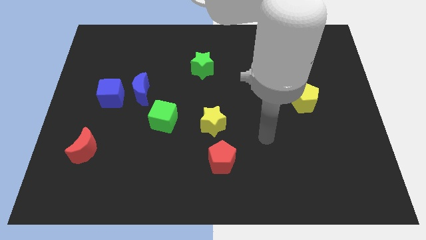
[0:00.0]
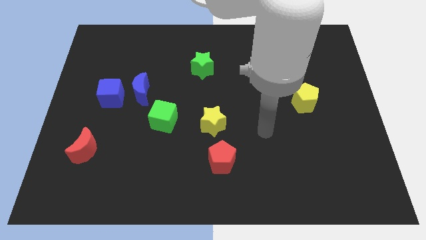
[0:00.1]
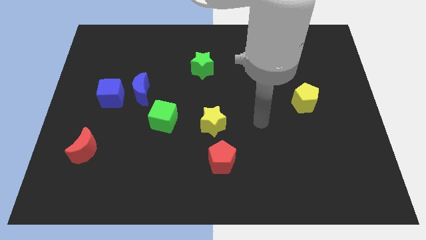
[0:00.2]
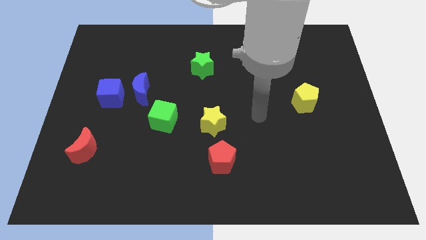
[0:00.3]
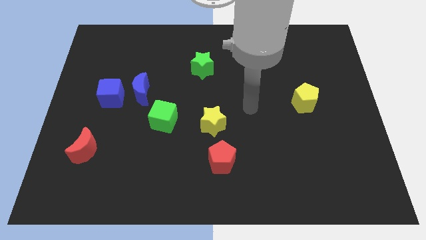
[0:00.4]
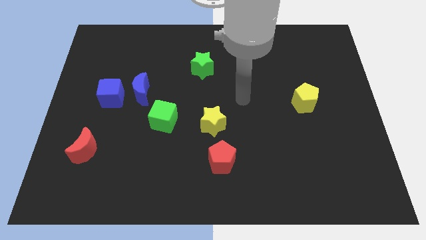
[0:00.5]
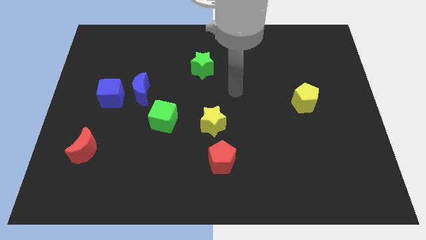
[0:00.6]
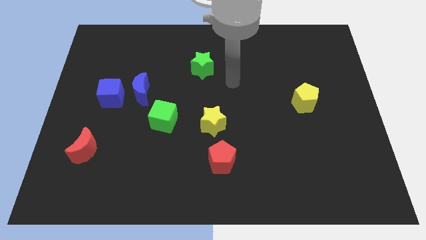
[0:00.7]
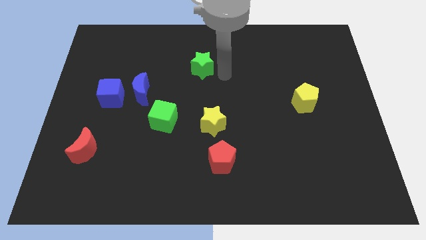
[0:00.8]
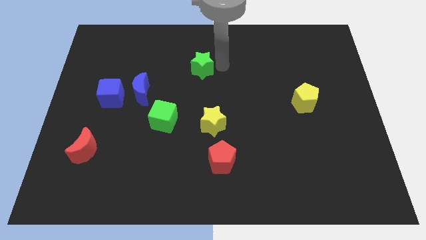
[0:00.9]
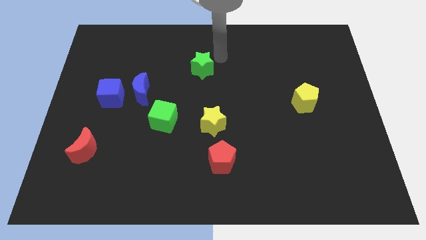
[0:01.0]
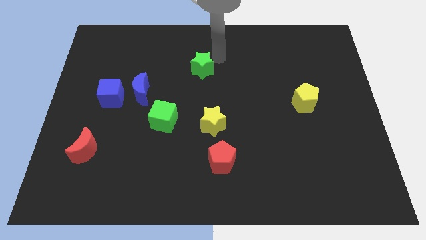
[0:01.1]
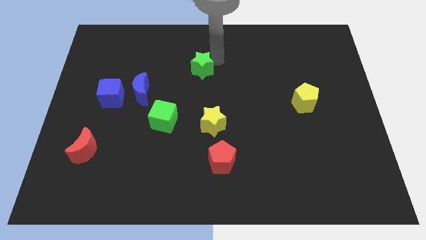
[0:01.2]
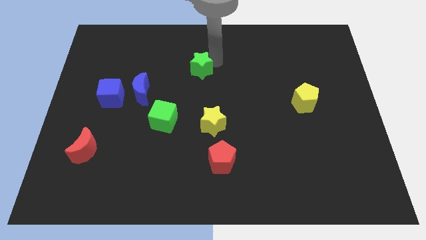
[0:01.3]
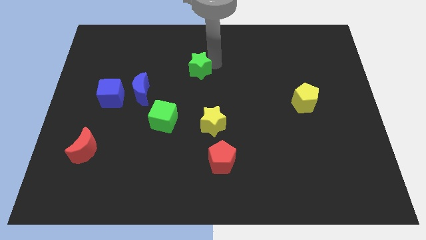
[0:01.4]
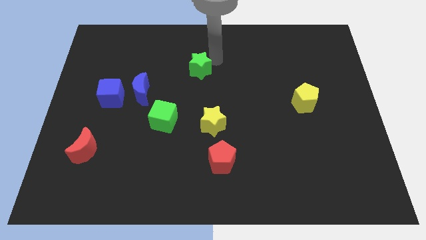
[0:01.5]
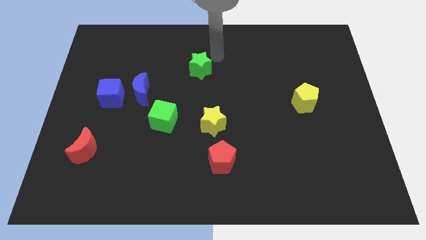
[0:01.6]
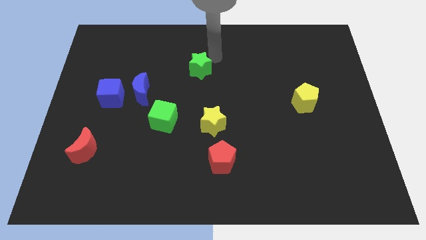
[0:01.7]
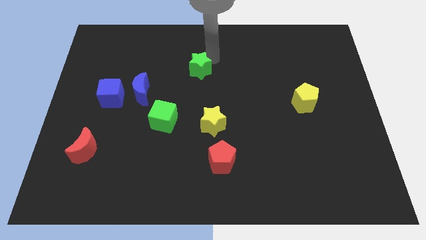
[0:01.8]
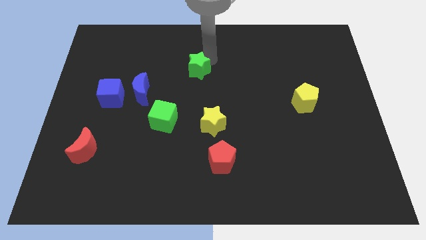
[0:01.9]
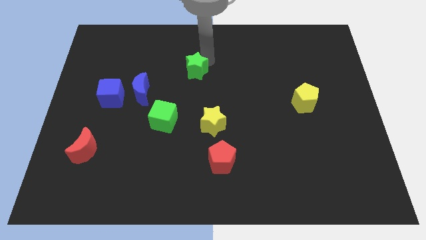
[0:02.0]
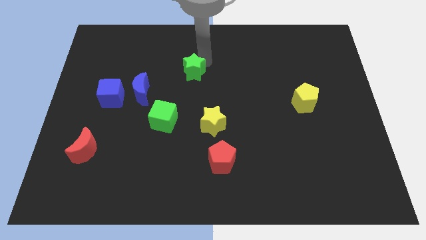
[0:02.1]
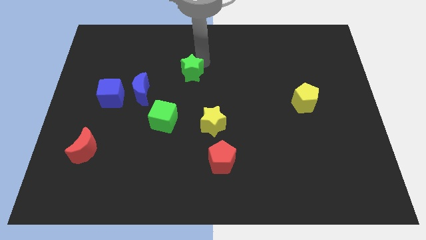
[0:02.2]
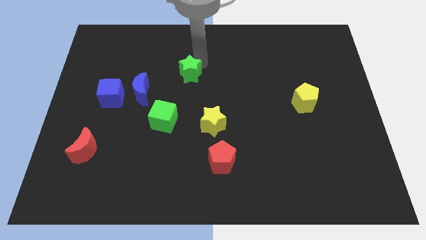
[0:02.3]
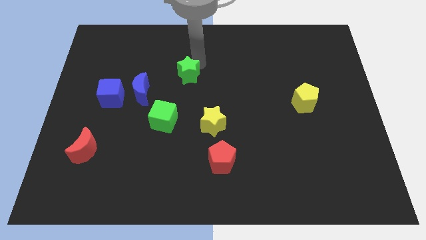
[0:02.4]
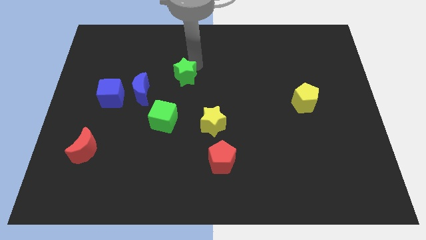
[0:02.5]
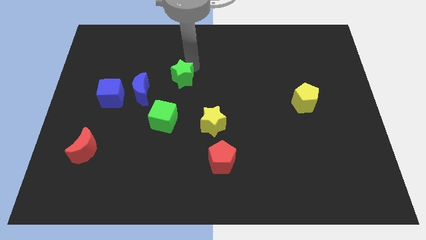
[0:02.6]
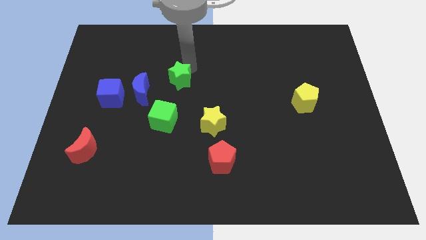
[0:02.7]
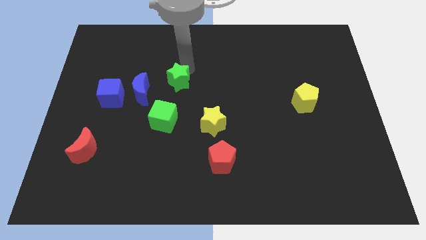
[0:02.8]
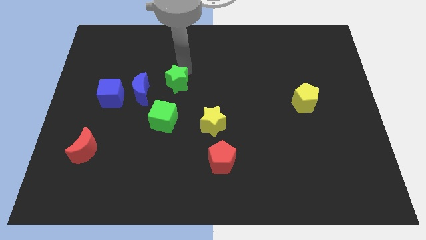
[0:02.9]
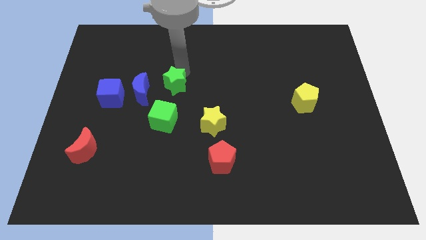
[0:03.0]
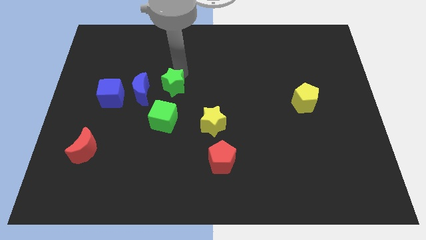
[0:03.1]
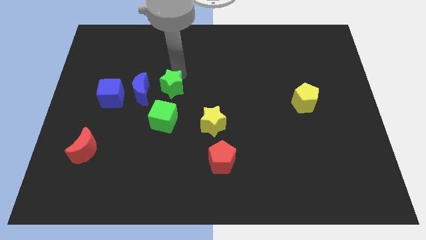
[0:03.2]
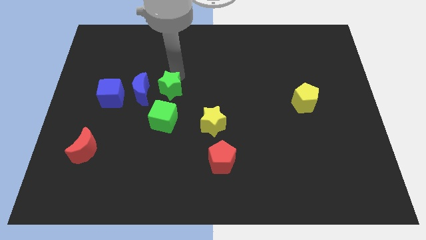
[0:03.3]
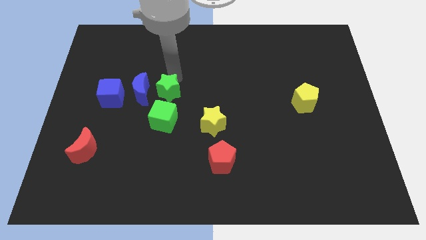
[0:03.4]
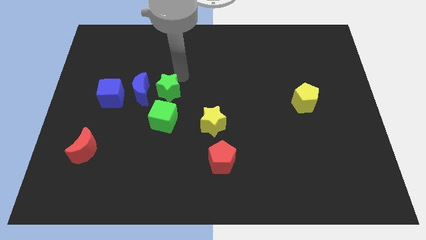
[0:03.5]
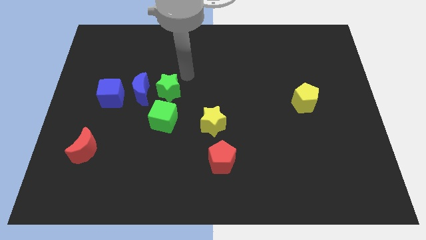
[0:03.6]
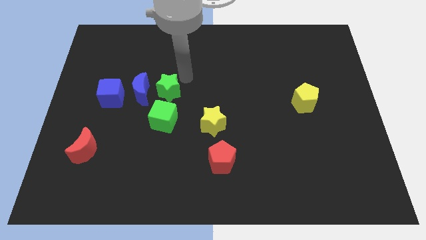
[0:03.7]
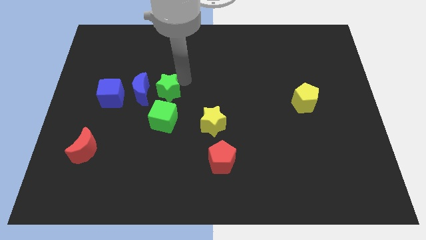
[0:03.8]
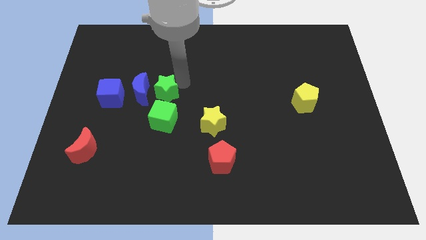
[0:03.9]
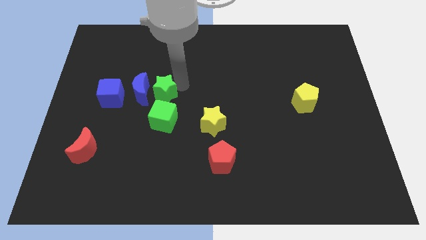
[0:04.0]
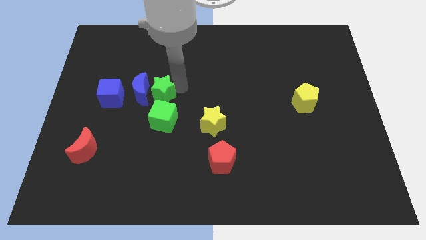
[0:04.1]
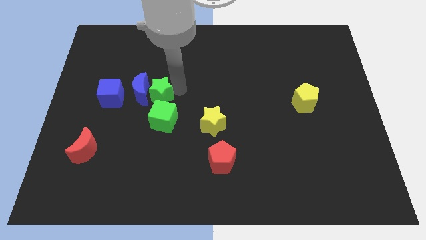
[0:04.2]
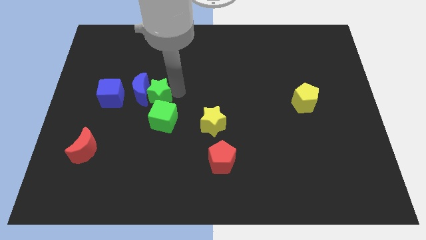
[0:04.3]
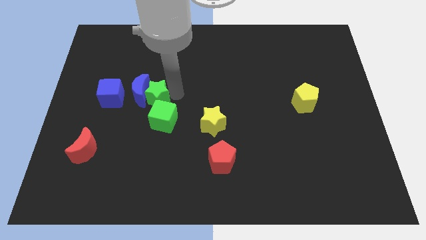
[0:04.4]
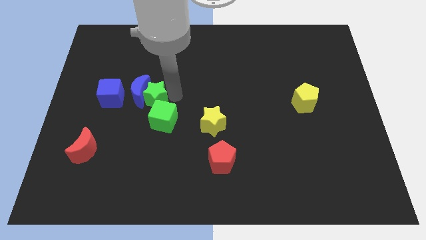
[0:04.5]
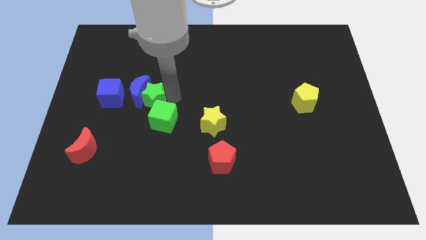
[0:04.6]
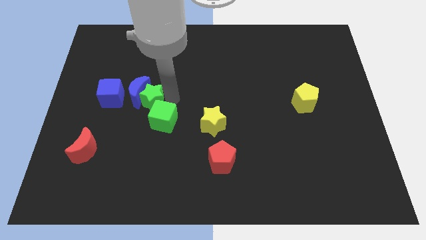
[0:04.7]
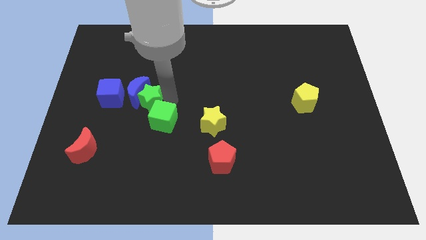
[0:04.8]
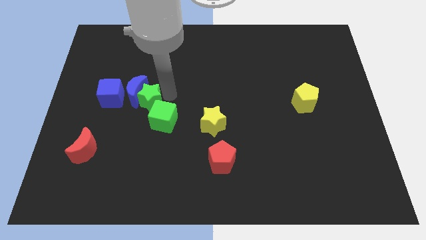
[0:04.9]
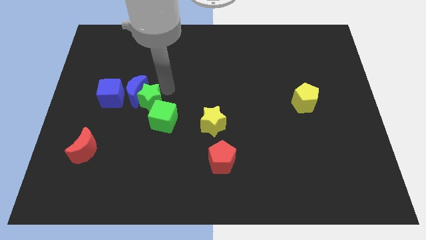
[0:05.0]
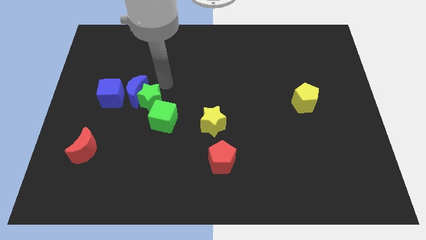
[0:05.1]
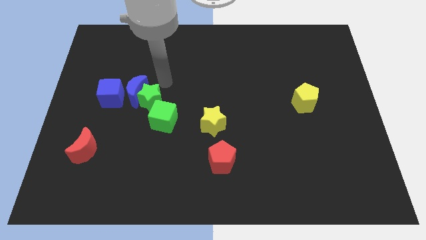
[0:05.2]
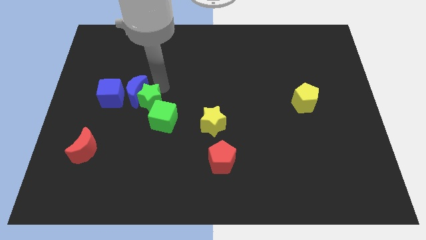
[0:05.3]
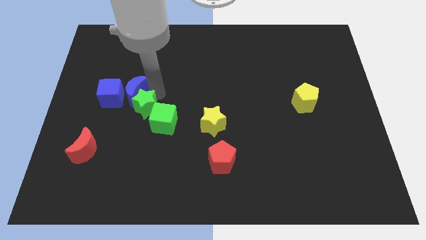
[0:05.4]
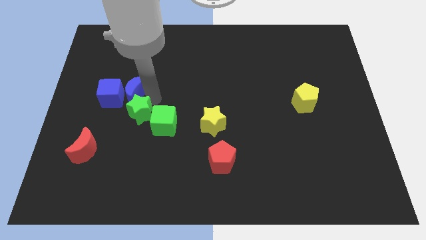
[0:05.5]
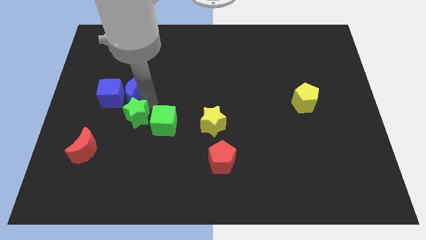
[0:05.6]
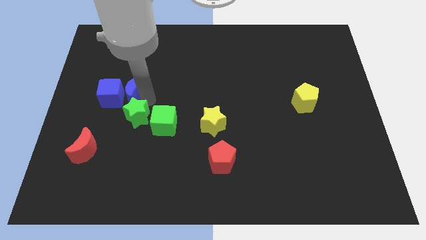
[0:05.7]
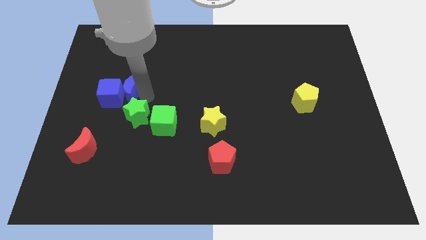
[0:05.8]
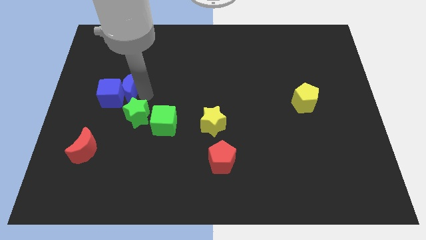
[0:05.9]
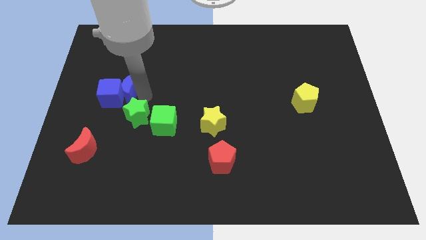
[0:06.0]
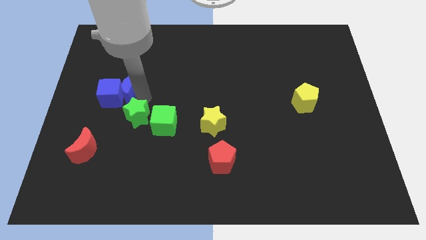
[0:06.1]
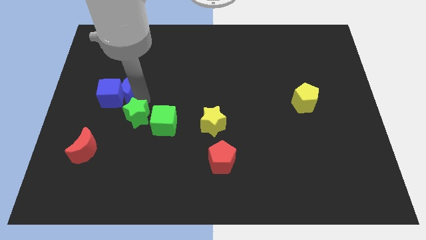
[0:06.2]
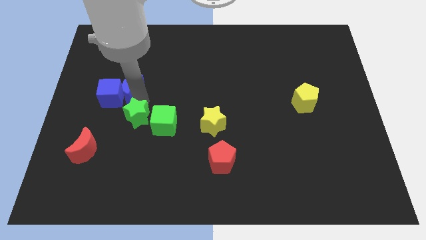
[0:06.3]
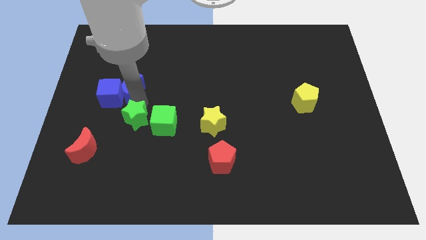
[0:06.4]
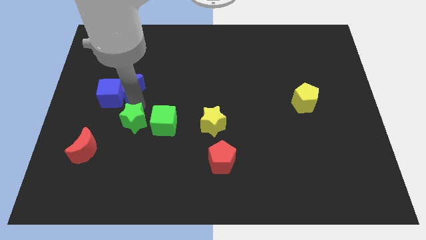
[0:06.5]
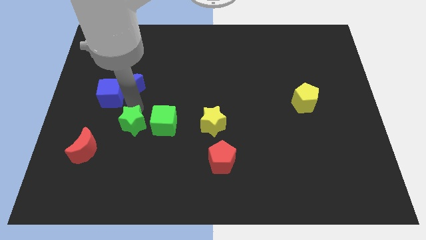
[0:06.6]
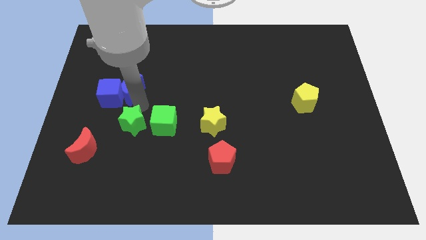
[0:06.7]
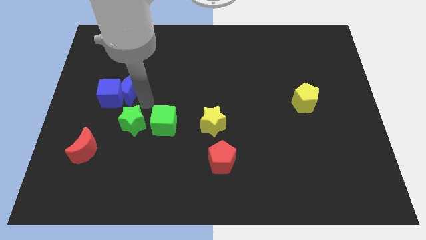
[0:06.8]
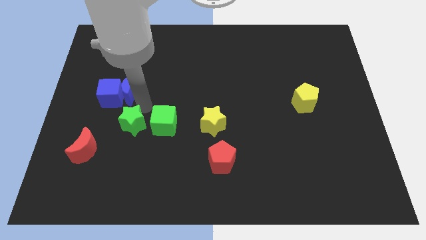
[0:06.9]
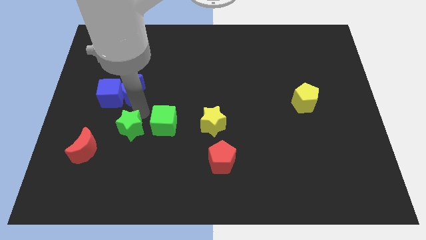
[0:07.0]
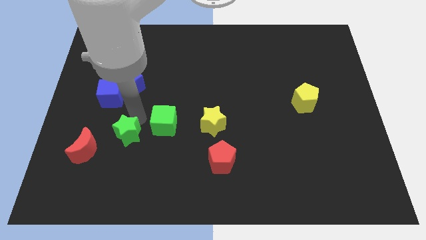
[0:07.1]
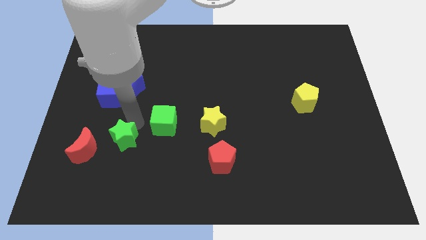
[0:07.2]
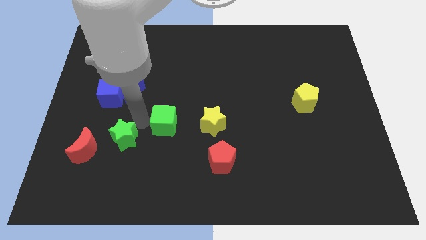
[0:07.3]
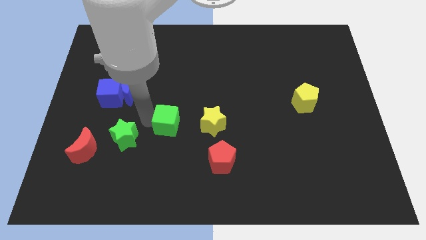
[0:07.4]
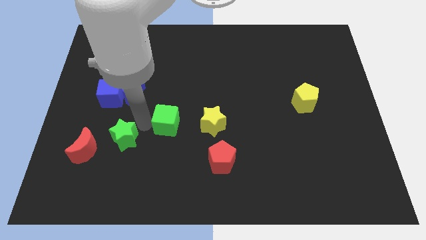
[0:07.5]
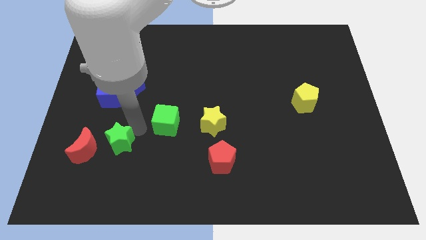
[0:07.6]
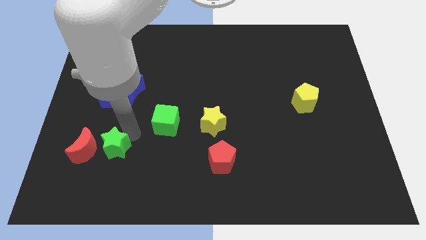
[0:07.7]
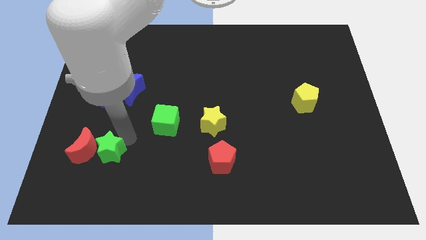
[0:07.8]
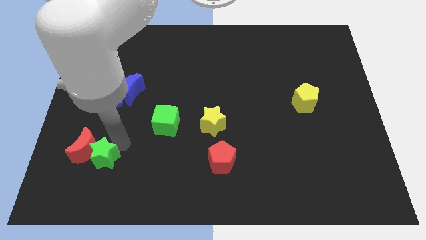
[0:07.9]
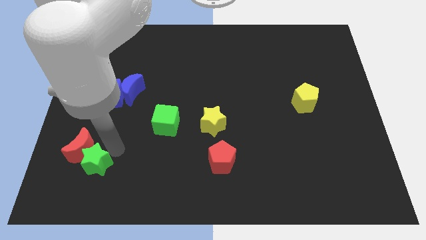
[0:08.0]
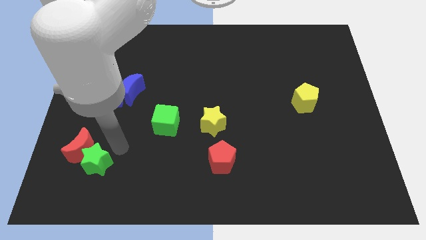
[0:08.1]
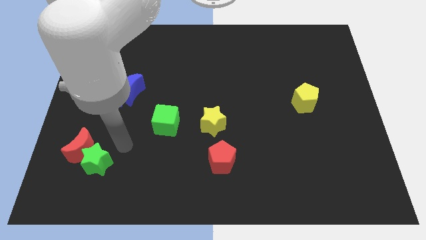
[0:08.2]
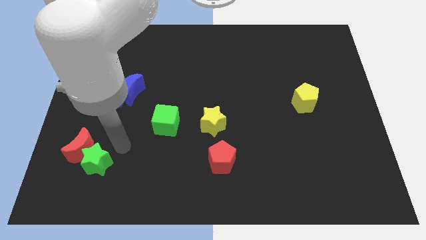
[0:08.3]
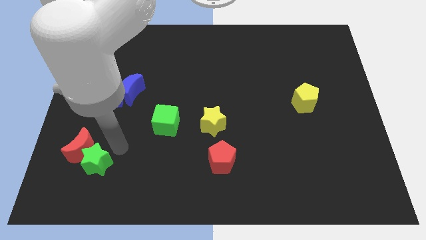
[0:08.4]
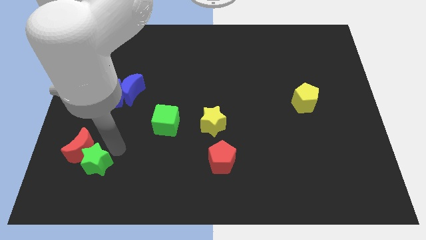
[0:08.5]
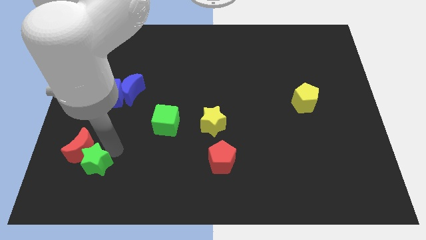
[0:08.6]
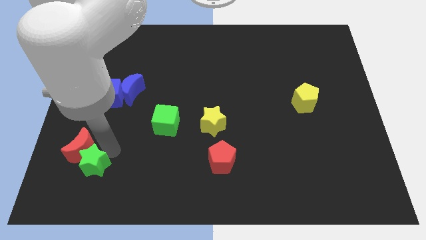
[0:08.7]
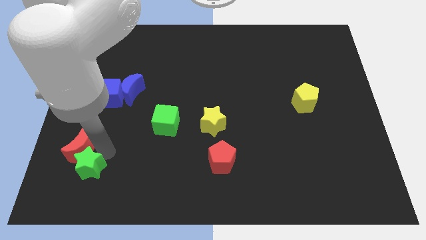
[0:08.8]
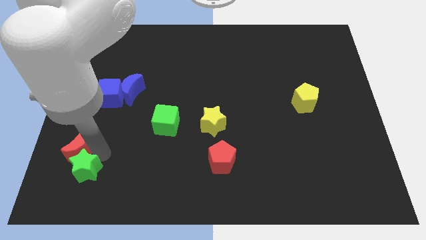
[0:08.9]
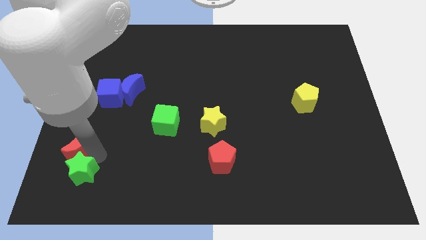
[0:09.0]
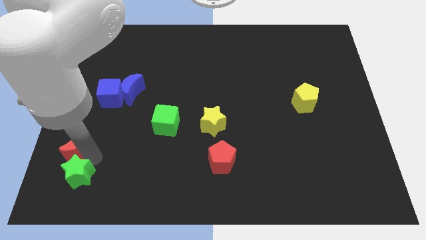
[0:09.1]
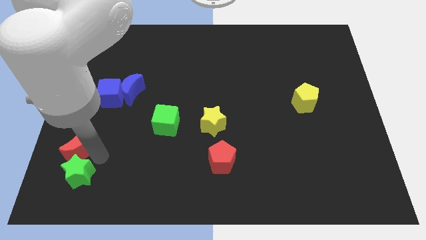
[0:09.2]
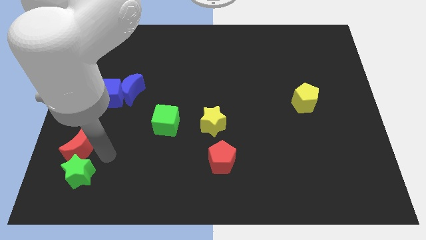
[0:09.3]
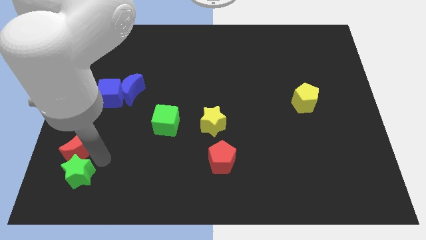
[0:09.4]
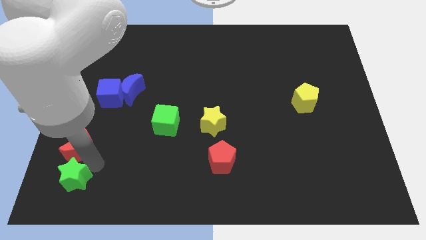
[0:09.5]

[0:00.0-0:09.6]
put the green star to the lower left corner
